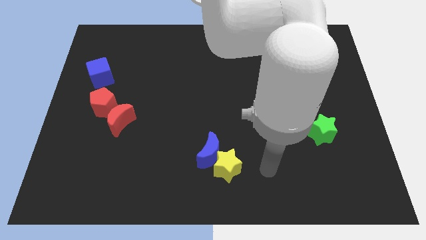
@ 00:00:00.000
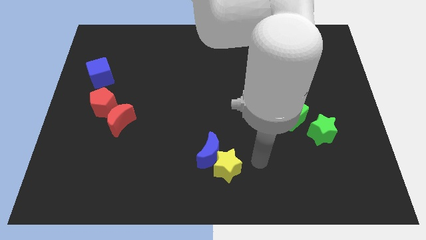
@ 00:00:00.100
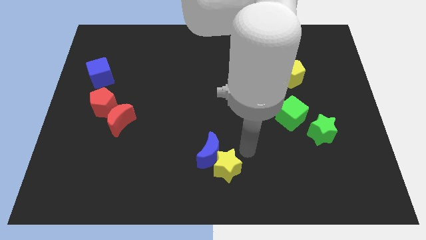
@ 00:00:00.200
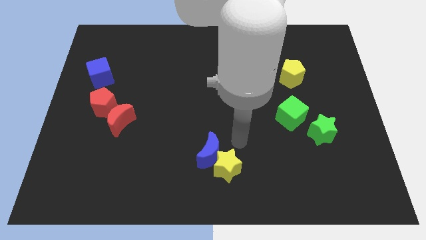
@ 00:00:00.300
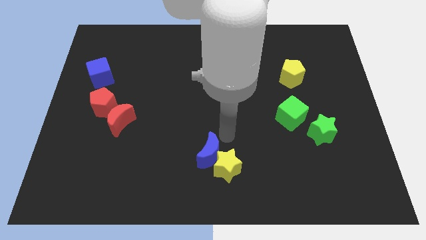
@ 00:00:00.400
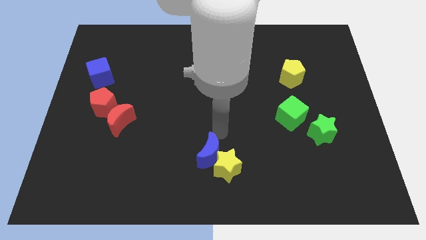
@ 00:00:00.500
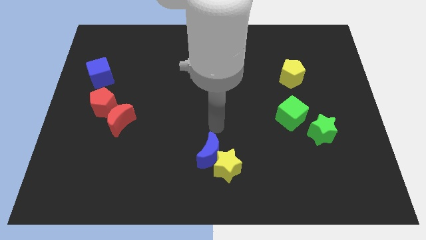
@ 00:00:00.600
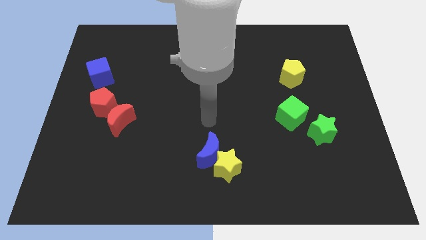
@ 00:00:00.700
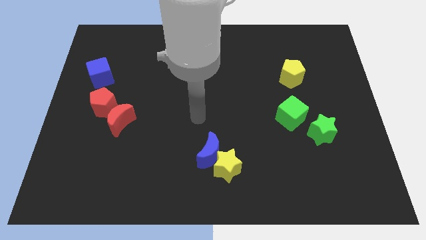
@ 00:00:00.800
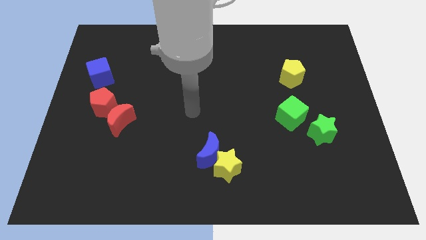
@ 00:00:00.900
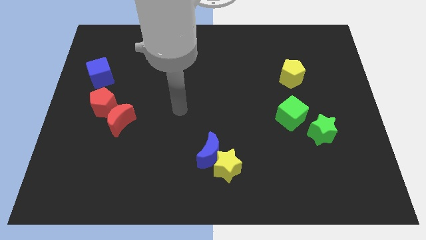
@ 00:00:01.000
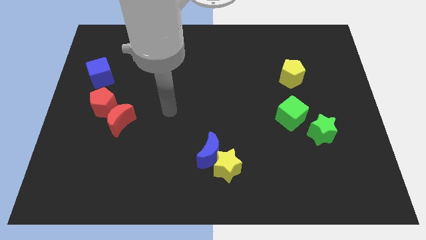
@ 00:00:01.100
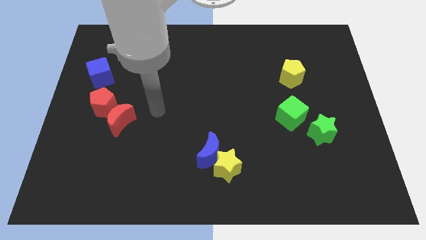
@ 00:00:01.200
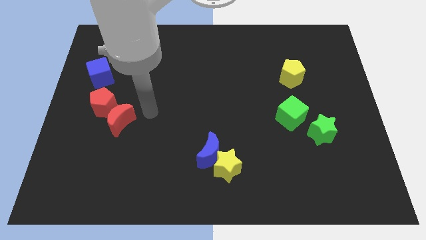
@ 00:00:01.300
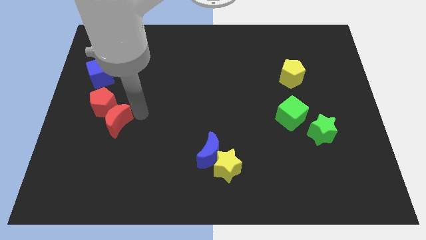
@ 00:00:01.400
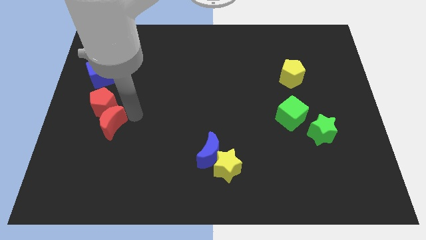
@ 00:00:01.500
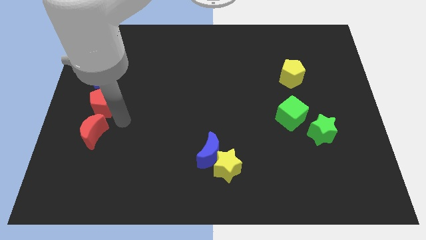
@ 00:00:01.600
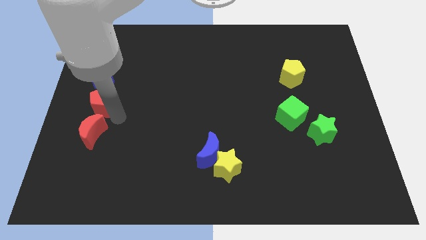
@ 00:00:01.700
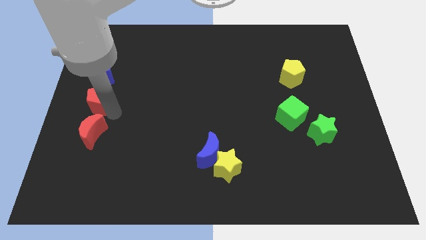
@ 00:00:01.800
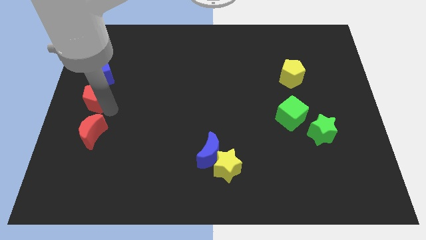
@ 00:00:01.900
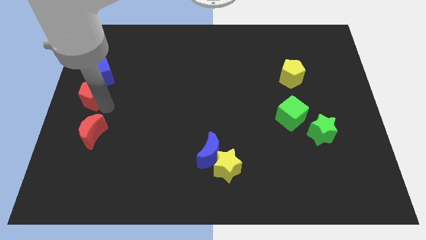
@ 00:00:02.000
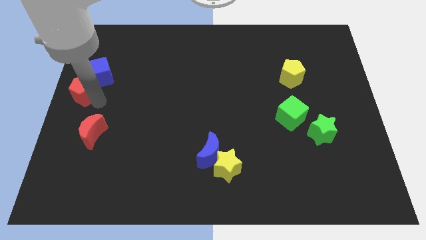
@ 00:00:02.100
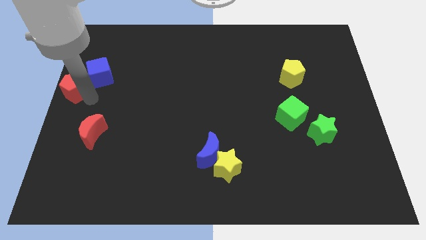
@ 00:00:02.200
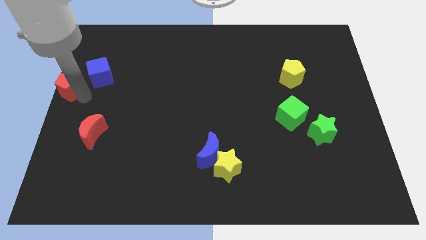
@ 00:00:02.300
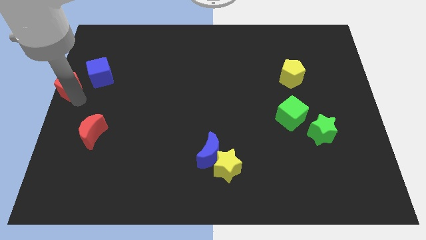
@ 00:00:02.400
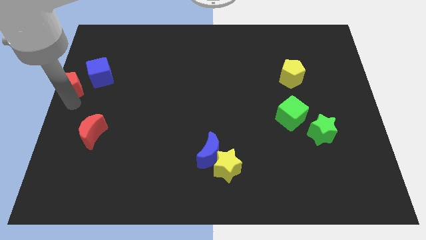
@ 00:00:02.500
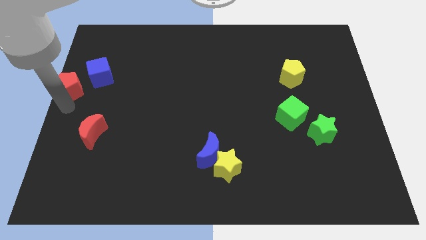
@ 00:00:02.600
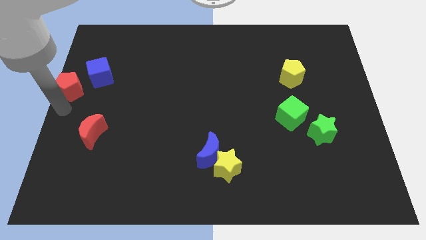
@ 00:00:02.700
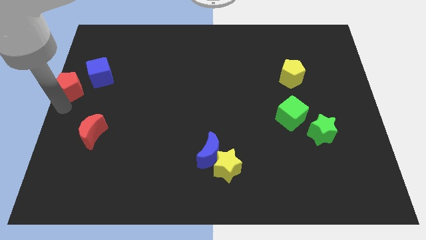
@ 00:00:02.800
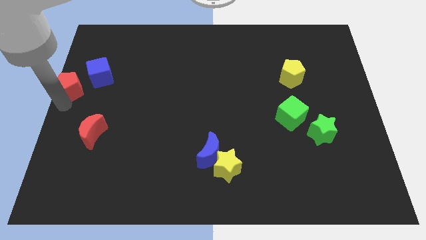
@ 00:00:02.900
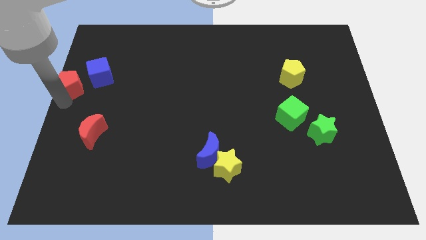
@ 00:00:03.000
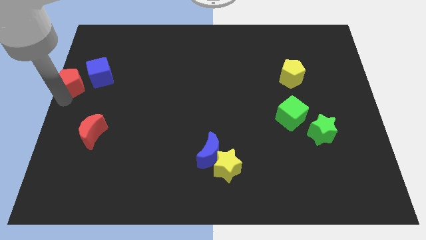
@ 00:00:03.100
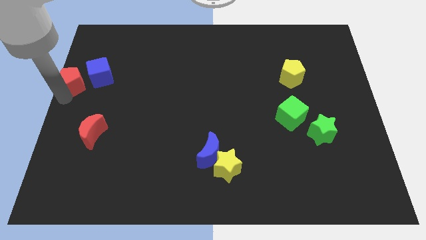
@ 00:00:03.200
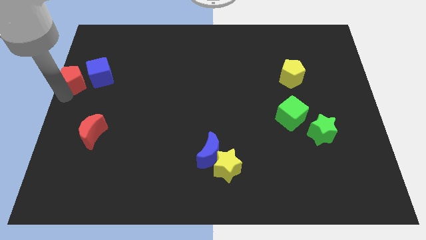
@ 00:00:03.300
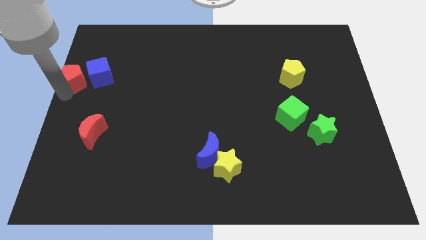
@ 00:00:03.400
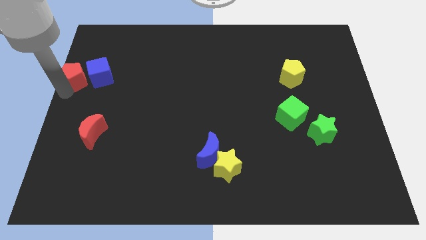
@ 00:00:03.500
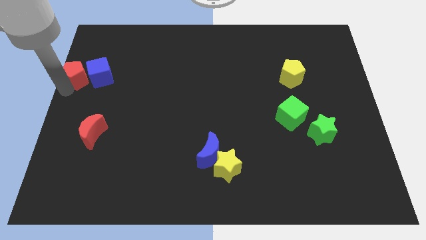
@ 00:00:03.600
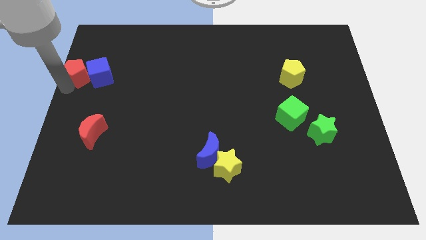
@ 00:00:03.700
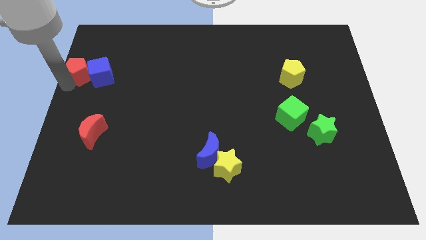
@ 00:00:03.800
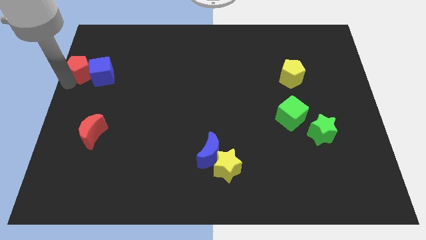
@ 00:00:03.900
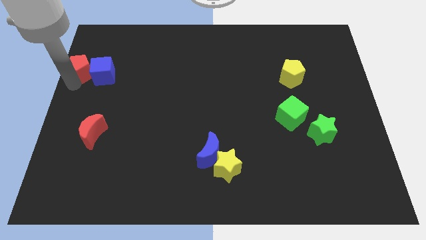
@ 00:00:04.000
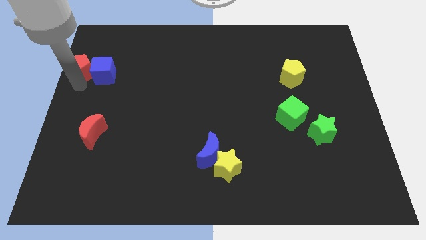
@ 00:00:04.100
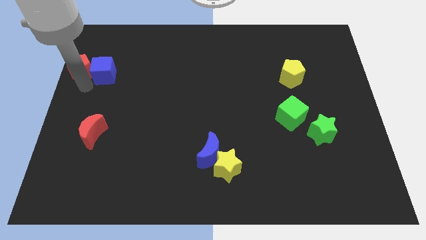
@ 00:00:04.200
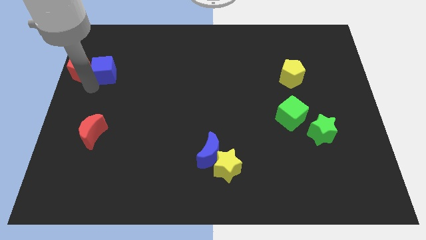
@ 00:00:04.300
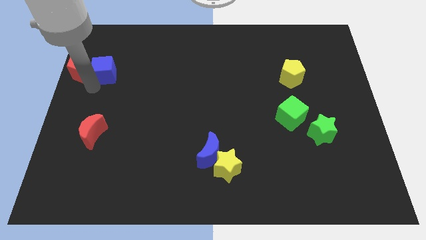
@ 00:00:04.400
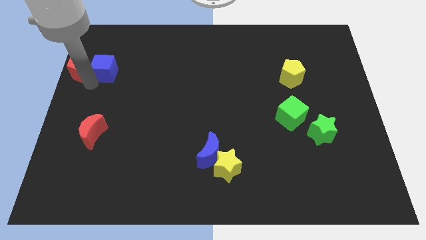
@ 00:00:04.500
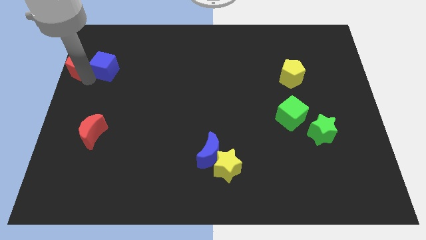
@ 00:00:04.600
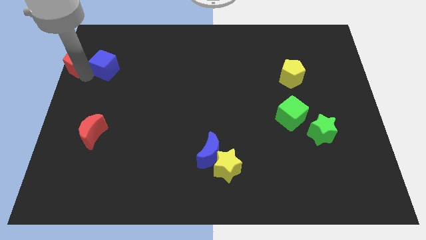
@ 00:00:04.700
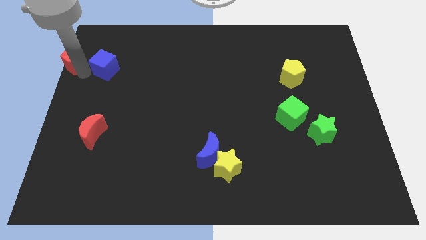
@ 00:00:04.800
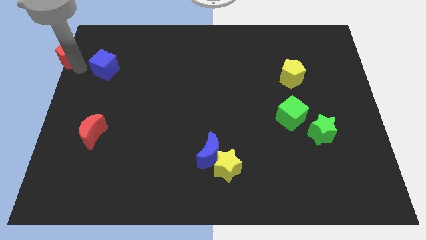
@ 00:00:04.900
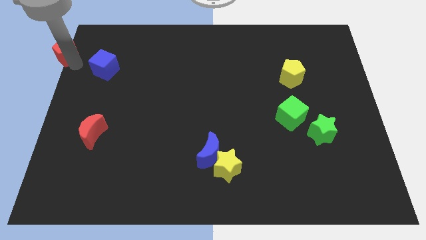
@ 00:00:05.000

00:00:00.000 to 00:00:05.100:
move the red pentagon to the top left of the board

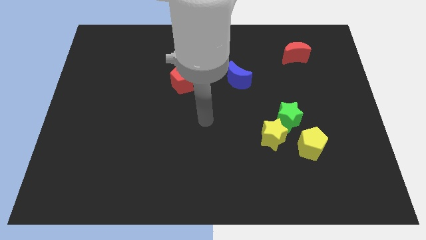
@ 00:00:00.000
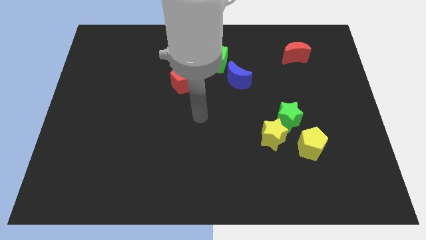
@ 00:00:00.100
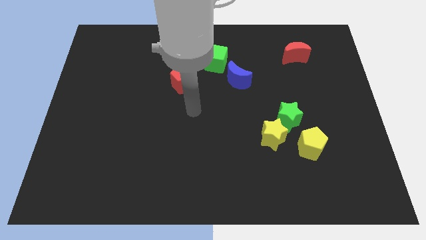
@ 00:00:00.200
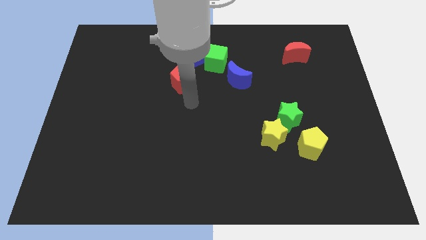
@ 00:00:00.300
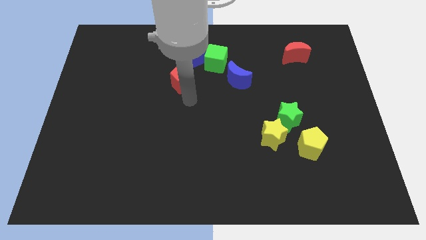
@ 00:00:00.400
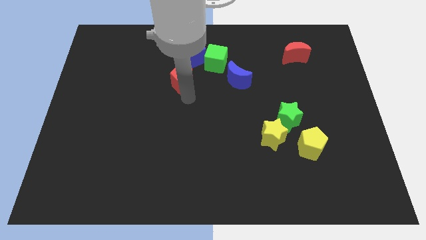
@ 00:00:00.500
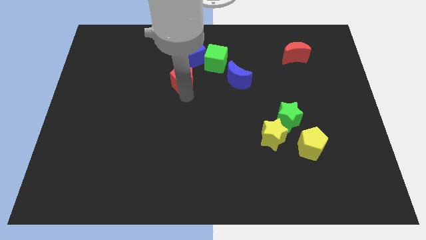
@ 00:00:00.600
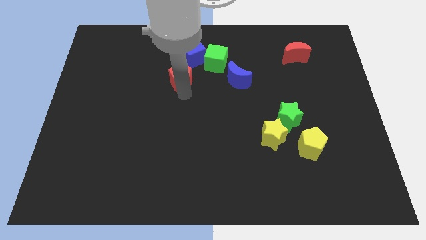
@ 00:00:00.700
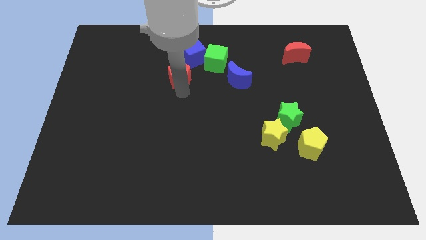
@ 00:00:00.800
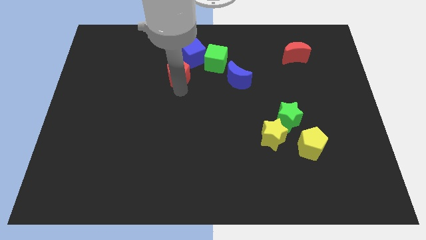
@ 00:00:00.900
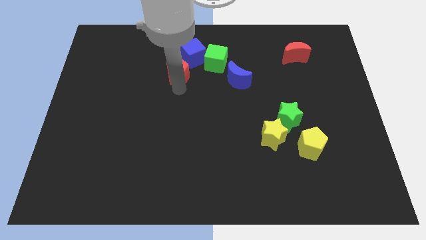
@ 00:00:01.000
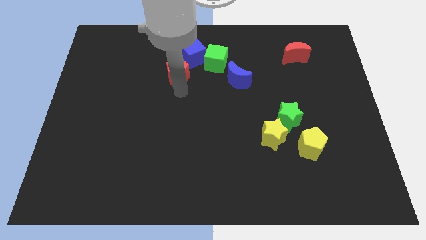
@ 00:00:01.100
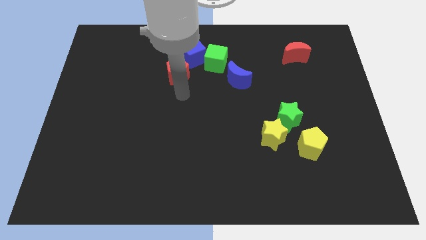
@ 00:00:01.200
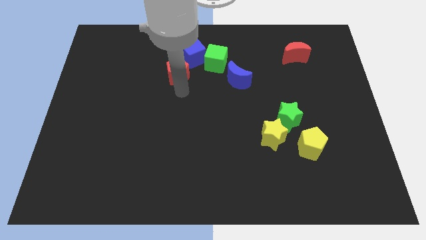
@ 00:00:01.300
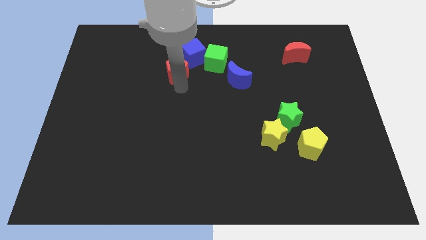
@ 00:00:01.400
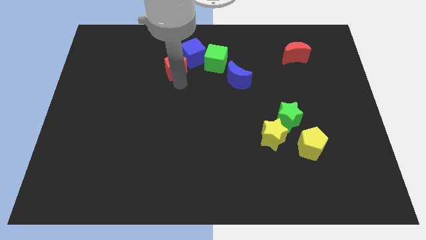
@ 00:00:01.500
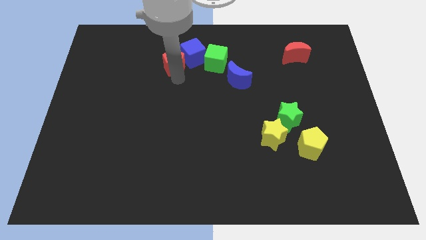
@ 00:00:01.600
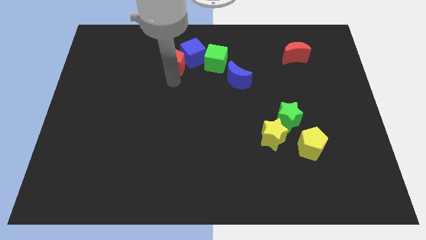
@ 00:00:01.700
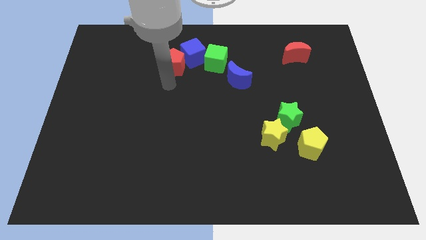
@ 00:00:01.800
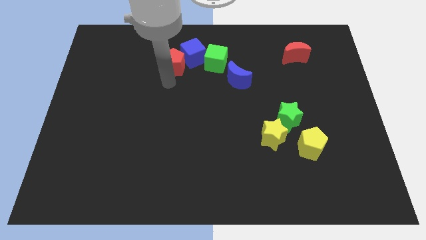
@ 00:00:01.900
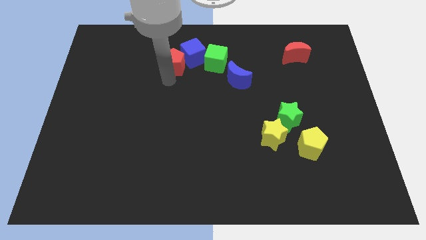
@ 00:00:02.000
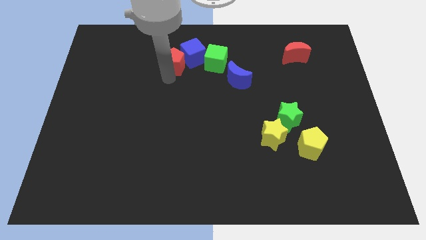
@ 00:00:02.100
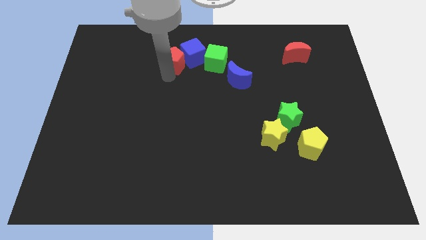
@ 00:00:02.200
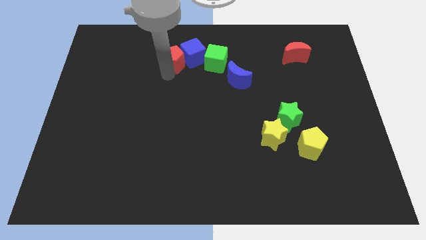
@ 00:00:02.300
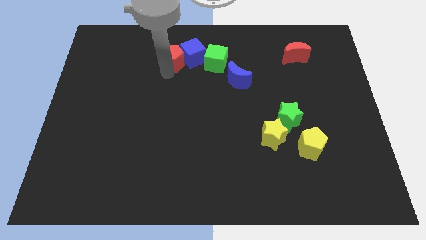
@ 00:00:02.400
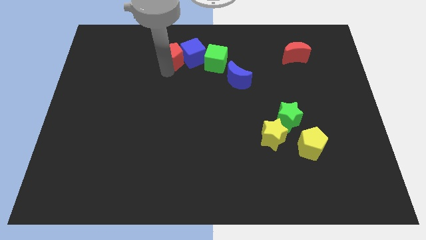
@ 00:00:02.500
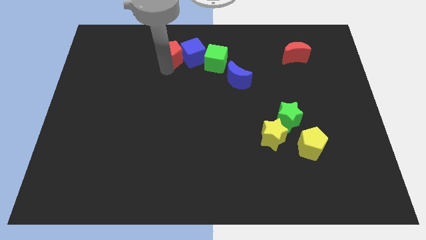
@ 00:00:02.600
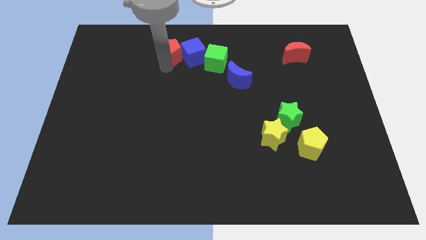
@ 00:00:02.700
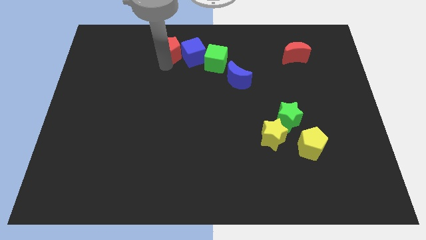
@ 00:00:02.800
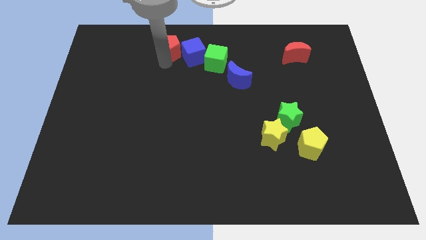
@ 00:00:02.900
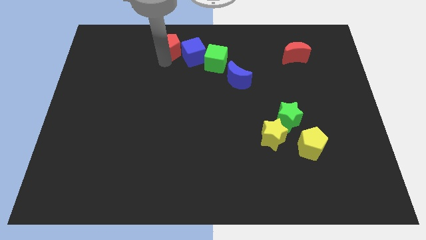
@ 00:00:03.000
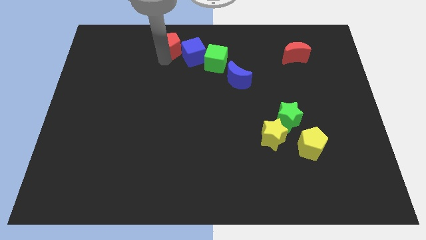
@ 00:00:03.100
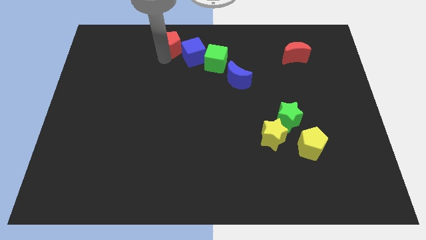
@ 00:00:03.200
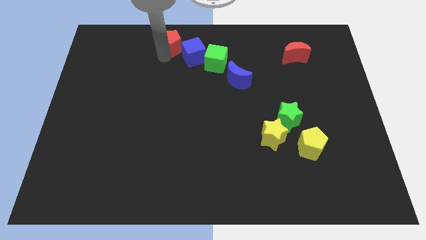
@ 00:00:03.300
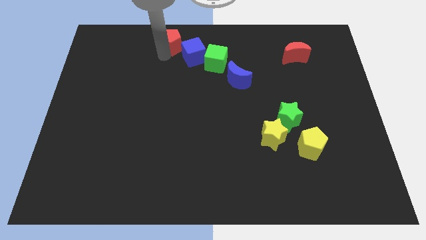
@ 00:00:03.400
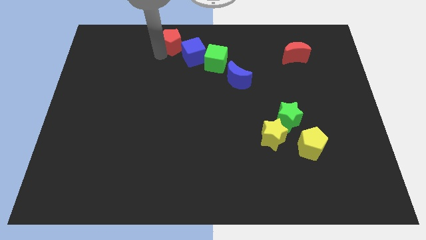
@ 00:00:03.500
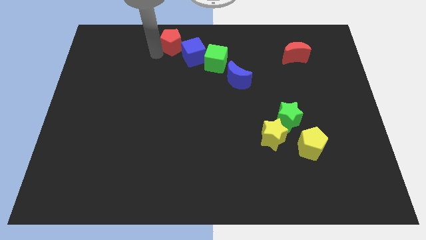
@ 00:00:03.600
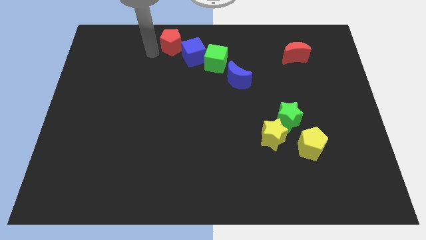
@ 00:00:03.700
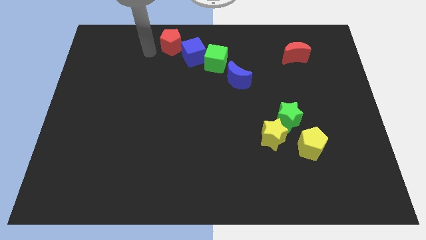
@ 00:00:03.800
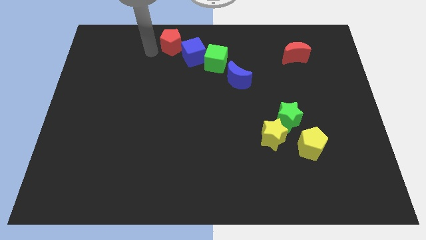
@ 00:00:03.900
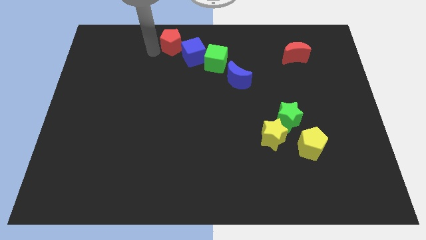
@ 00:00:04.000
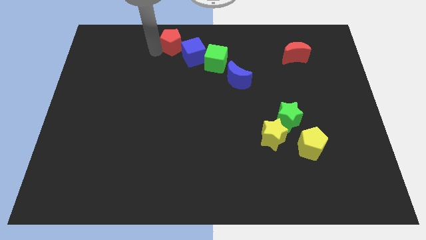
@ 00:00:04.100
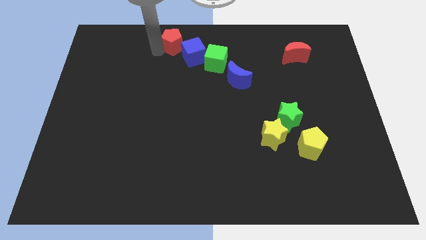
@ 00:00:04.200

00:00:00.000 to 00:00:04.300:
put the red pentagon to the top
